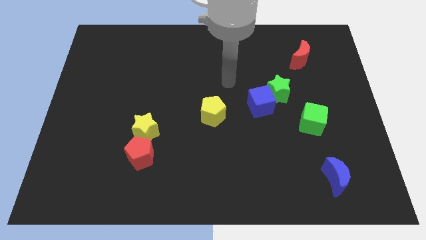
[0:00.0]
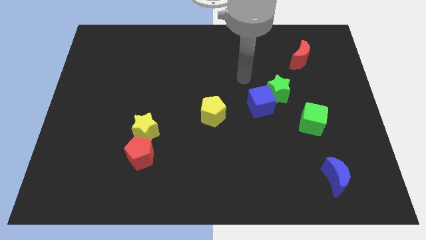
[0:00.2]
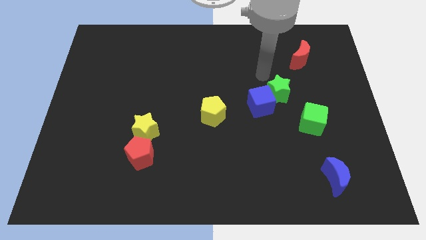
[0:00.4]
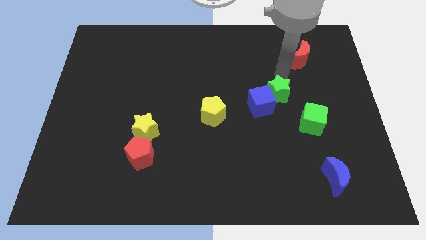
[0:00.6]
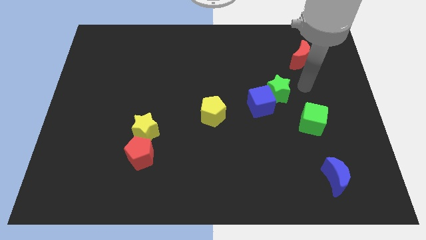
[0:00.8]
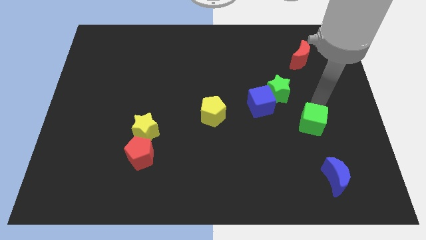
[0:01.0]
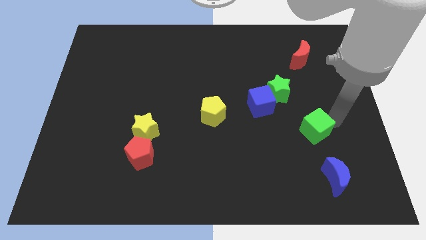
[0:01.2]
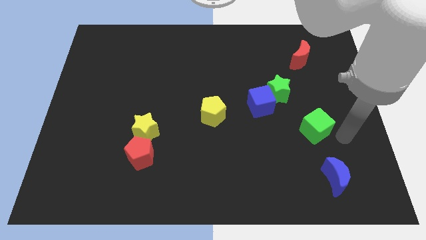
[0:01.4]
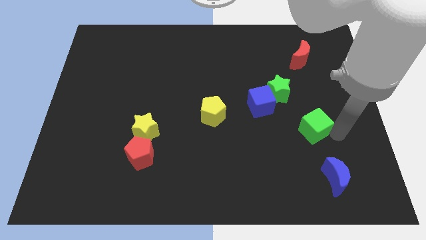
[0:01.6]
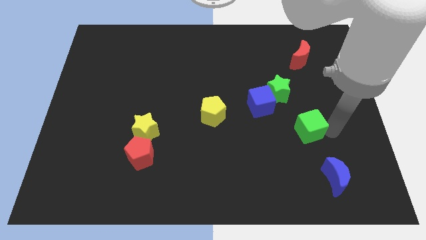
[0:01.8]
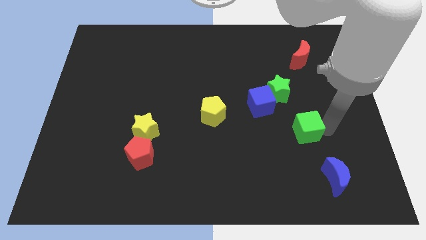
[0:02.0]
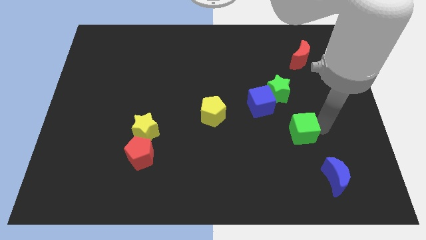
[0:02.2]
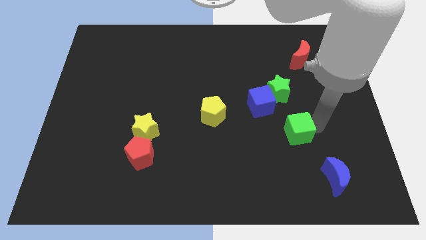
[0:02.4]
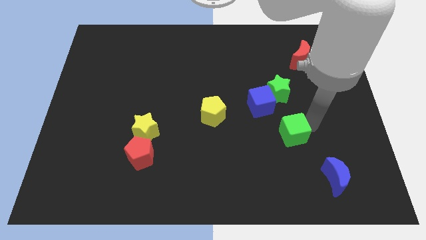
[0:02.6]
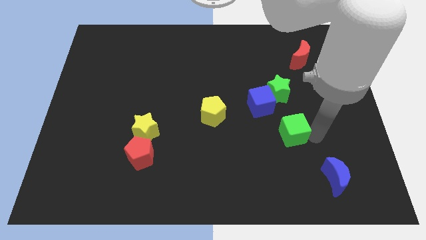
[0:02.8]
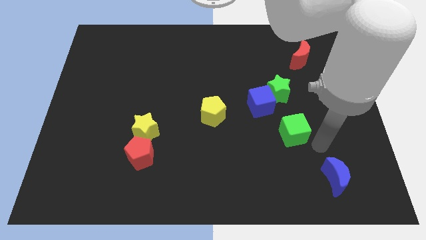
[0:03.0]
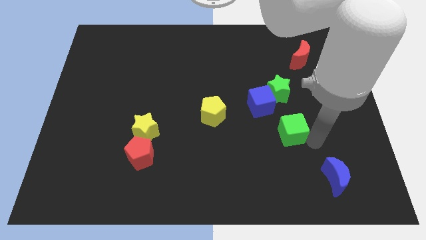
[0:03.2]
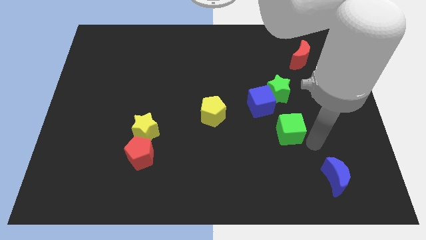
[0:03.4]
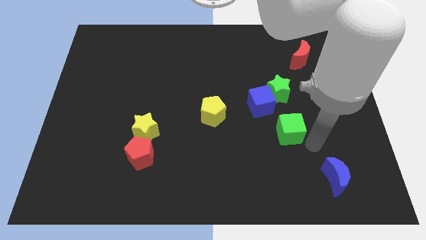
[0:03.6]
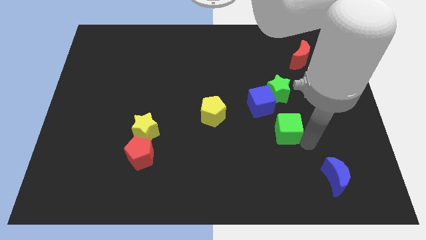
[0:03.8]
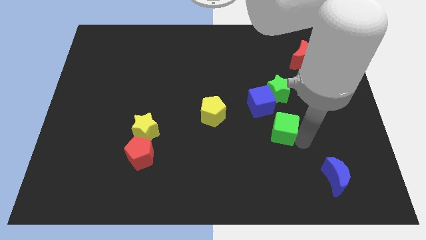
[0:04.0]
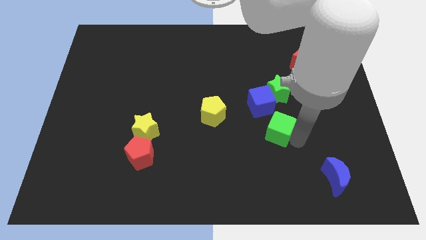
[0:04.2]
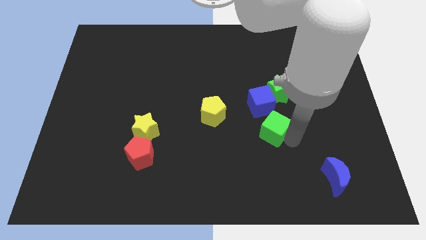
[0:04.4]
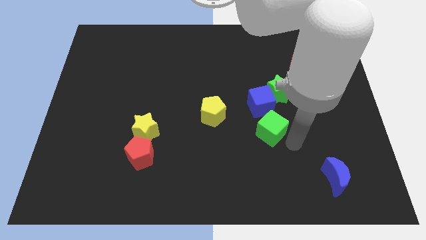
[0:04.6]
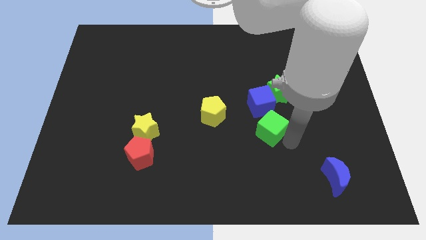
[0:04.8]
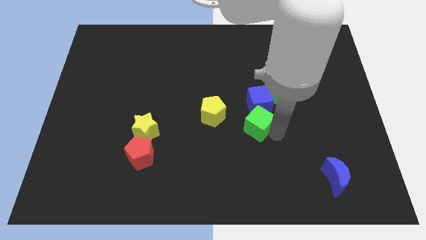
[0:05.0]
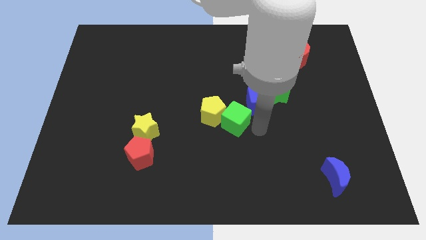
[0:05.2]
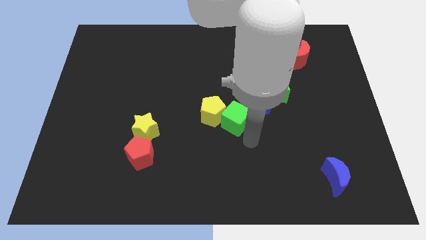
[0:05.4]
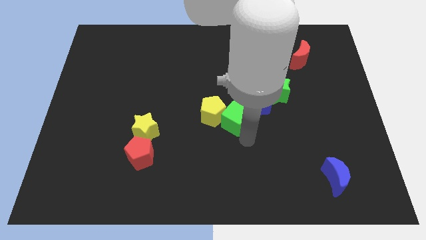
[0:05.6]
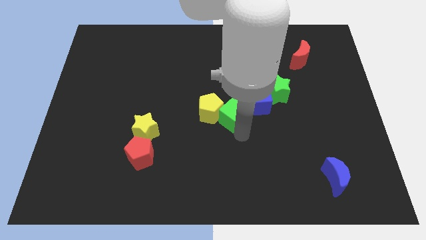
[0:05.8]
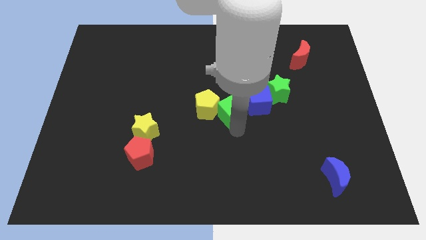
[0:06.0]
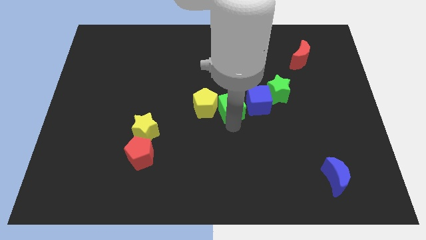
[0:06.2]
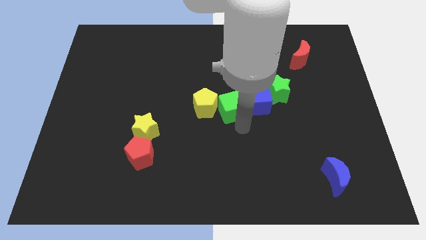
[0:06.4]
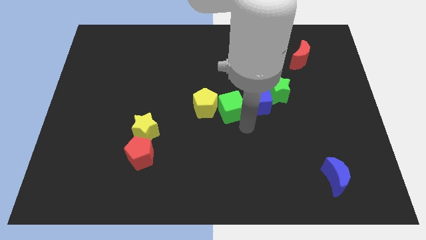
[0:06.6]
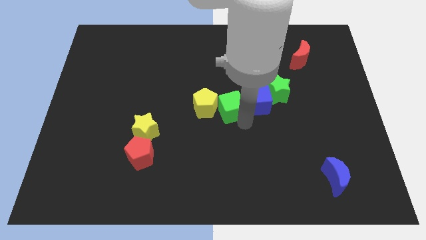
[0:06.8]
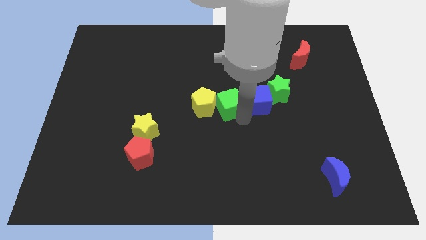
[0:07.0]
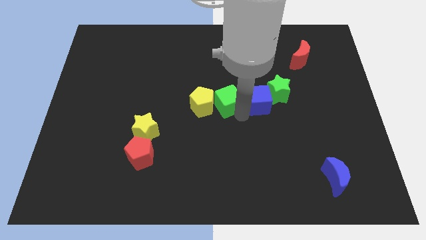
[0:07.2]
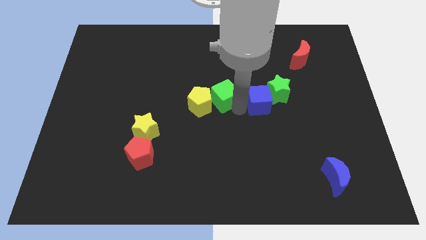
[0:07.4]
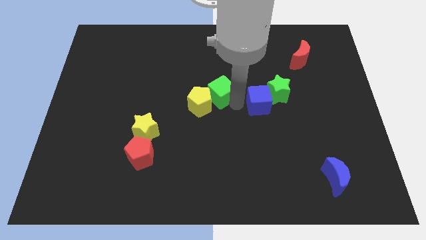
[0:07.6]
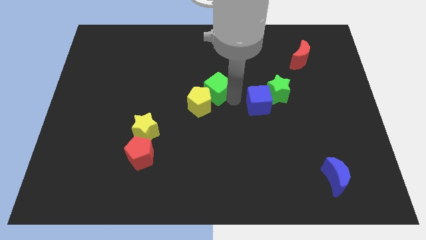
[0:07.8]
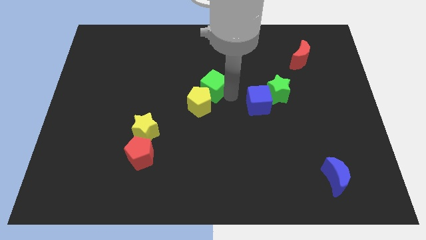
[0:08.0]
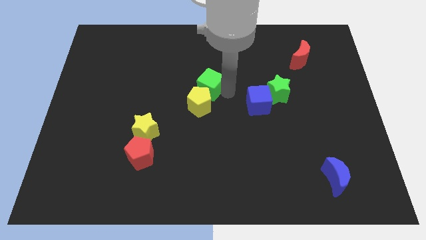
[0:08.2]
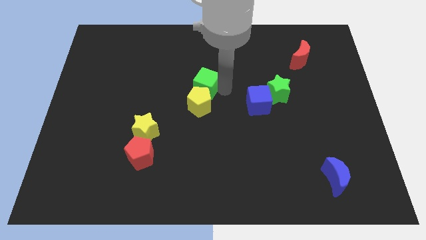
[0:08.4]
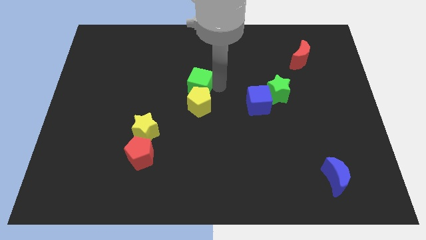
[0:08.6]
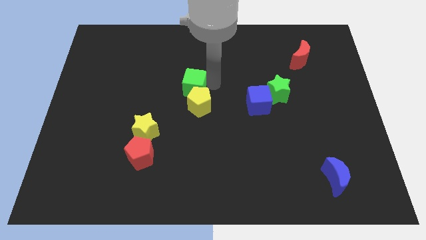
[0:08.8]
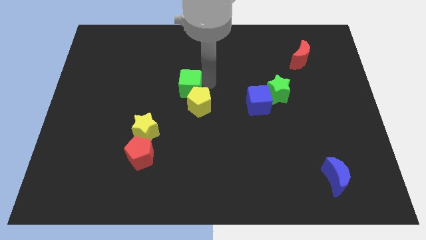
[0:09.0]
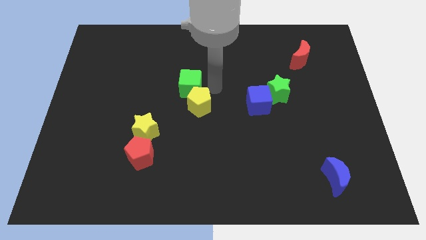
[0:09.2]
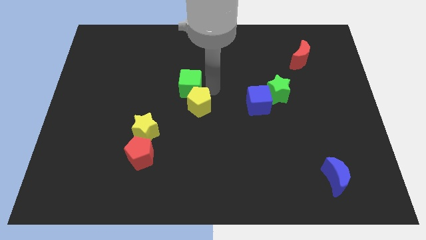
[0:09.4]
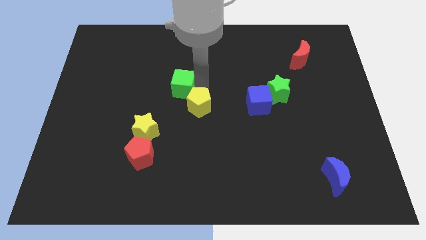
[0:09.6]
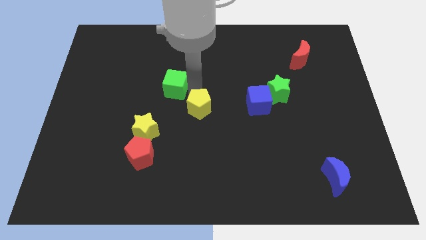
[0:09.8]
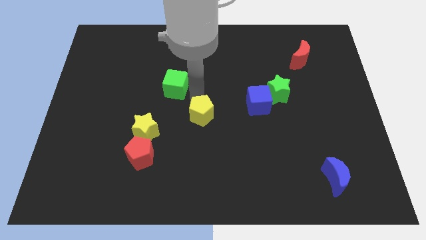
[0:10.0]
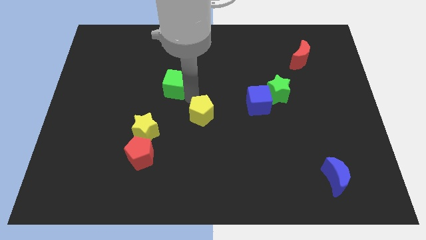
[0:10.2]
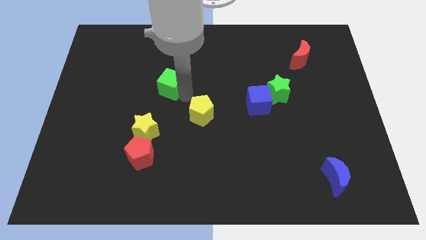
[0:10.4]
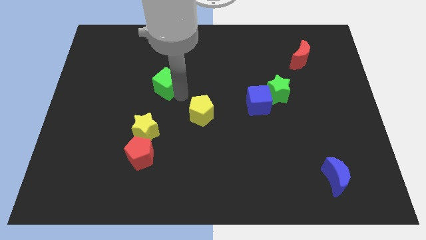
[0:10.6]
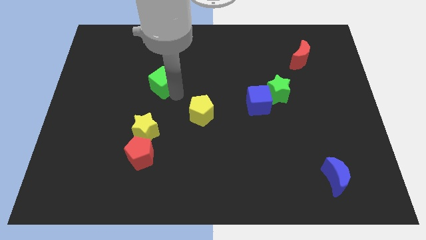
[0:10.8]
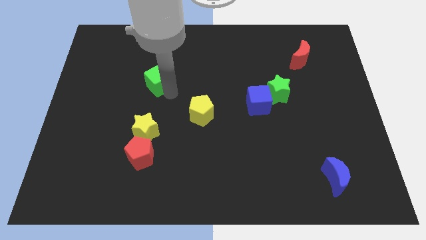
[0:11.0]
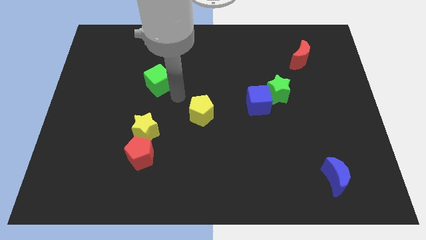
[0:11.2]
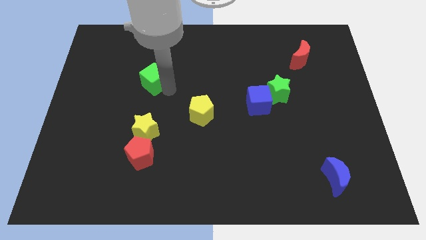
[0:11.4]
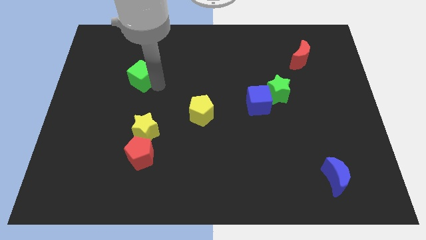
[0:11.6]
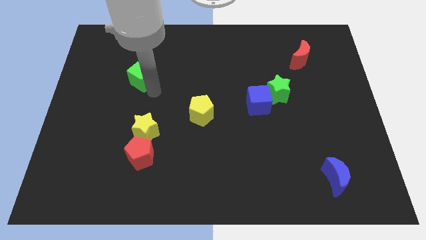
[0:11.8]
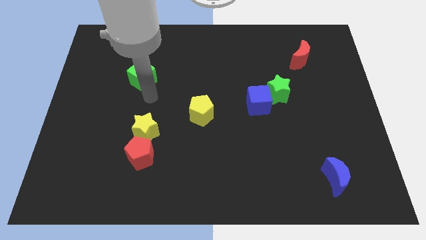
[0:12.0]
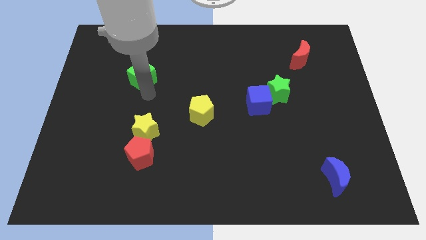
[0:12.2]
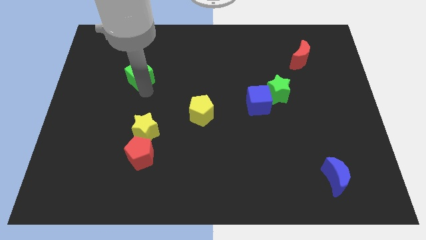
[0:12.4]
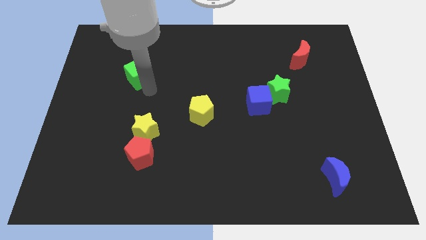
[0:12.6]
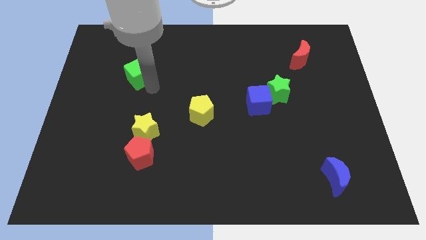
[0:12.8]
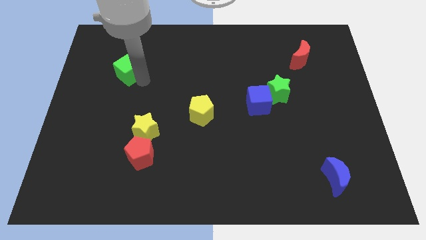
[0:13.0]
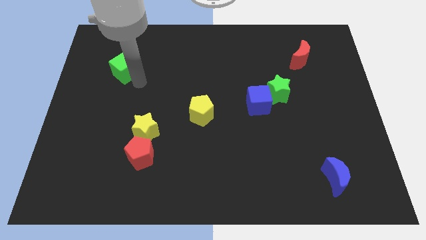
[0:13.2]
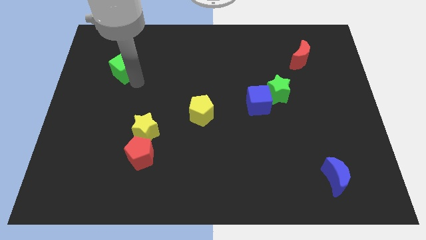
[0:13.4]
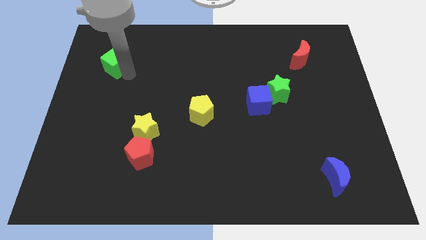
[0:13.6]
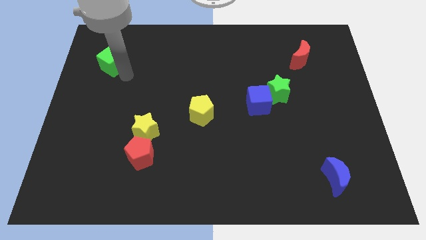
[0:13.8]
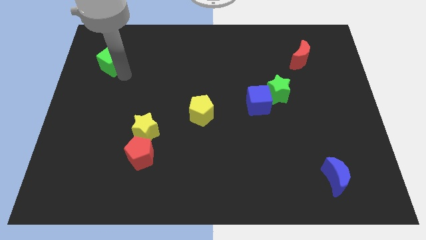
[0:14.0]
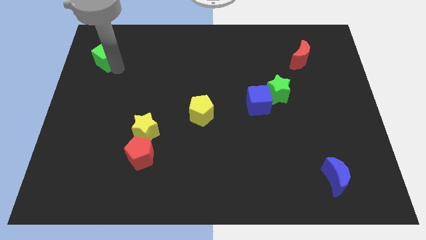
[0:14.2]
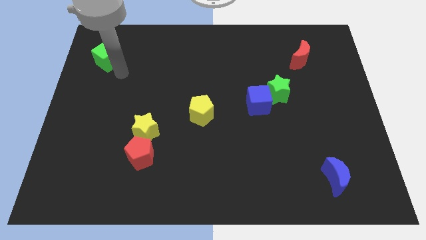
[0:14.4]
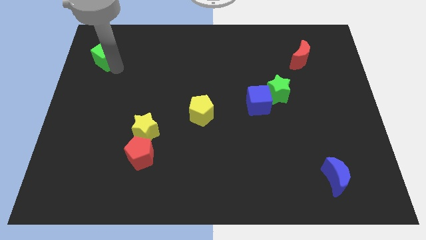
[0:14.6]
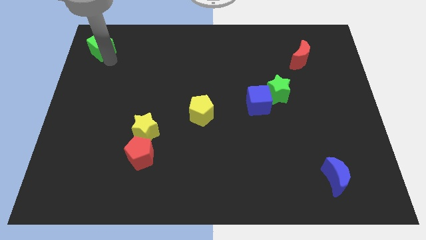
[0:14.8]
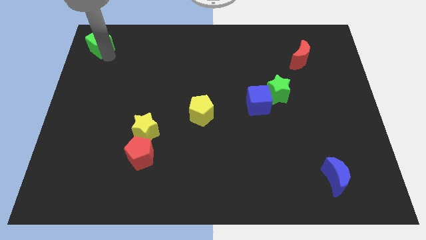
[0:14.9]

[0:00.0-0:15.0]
slide the green cube to the top left
